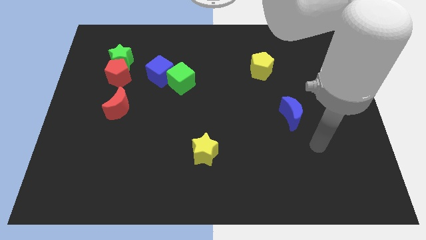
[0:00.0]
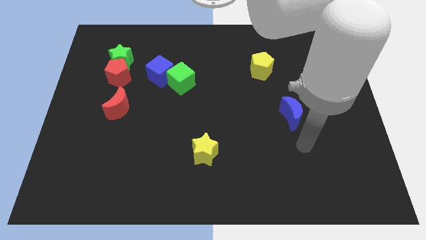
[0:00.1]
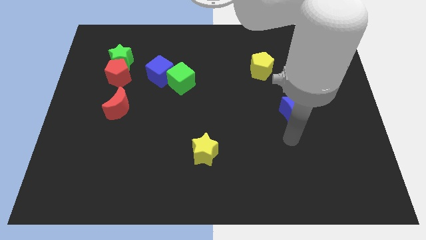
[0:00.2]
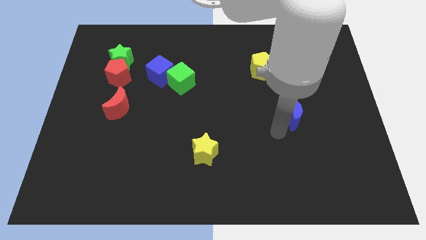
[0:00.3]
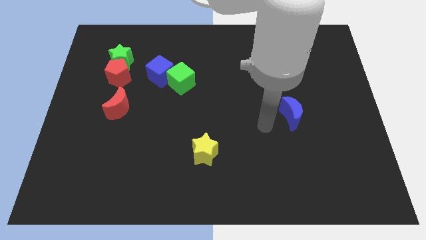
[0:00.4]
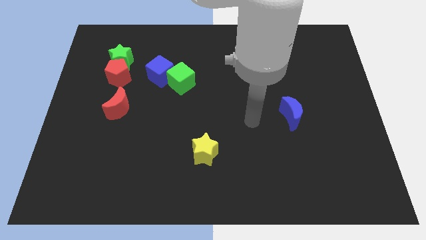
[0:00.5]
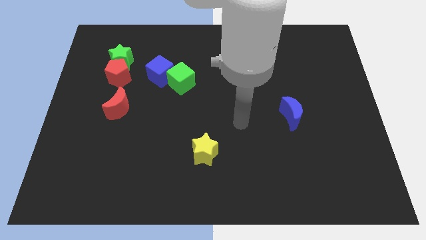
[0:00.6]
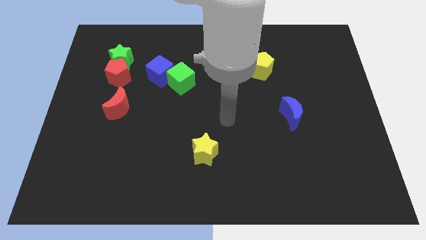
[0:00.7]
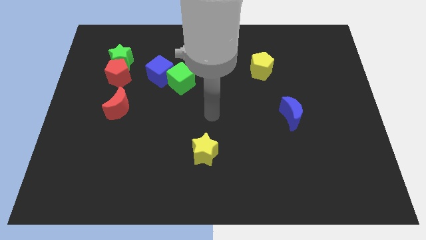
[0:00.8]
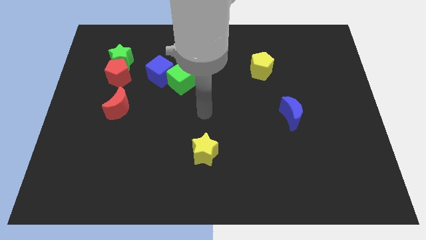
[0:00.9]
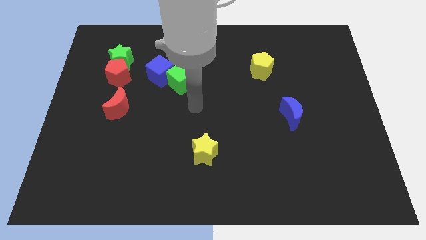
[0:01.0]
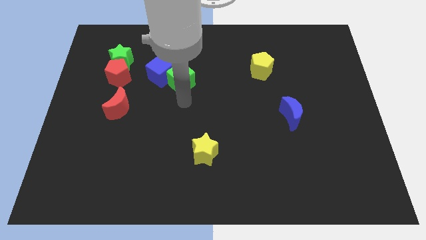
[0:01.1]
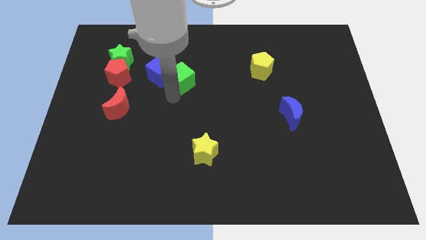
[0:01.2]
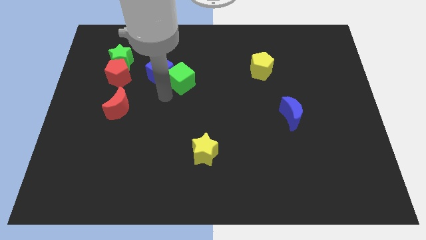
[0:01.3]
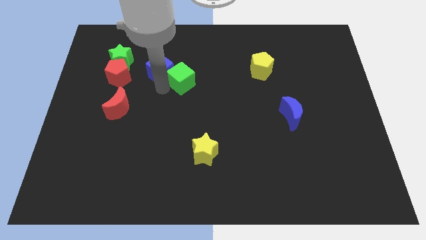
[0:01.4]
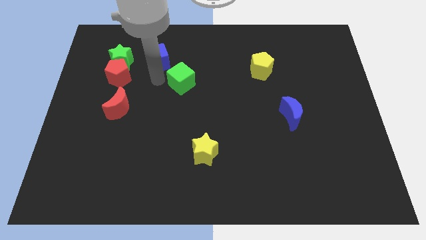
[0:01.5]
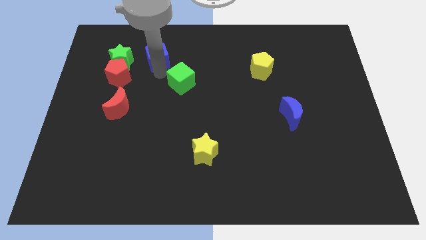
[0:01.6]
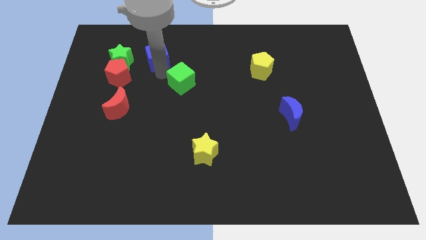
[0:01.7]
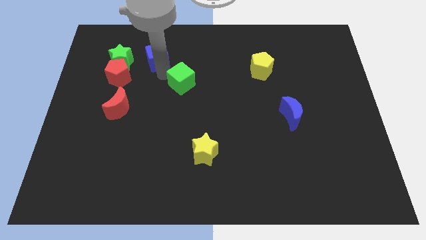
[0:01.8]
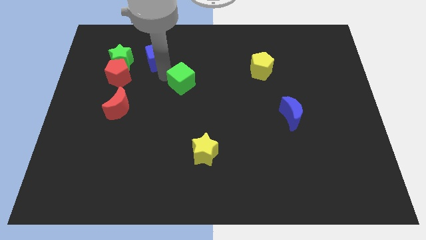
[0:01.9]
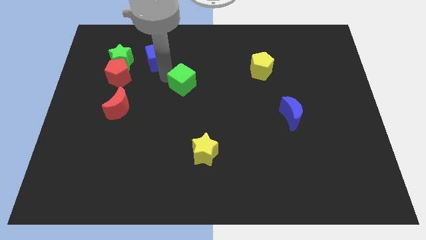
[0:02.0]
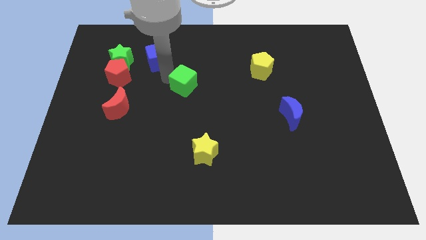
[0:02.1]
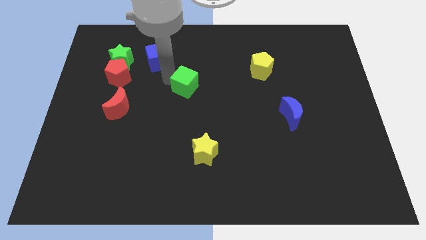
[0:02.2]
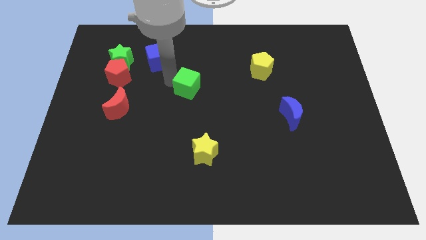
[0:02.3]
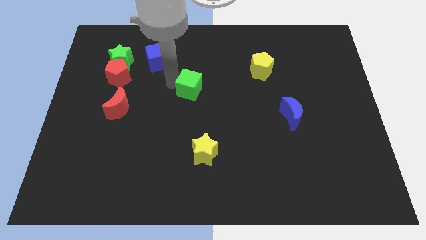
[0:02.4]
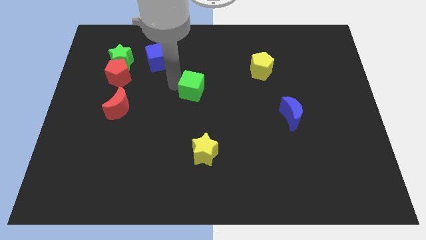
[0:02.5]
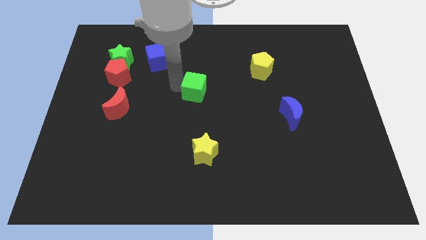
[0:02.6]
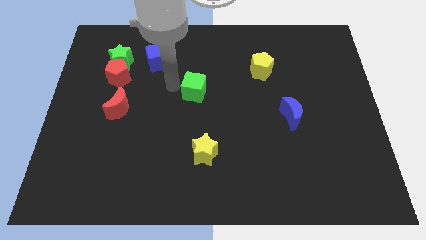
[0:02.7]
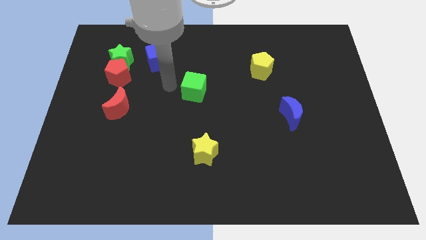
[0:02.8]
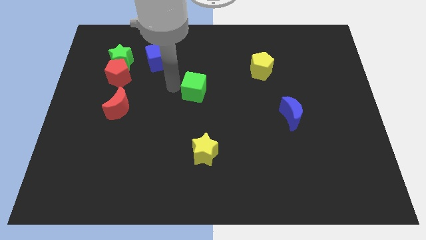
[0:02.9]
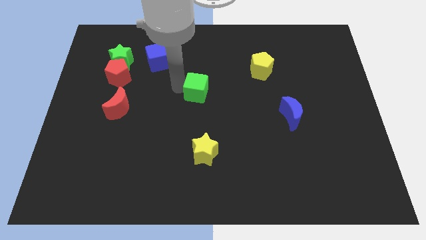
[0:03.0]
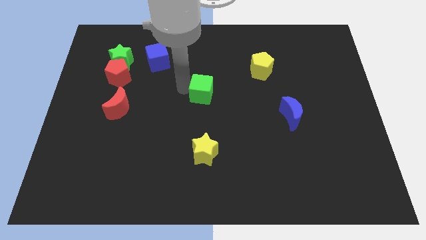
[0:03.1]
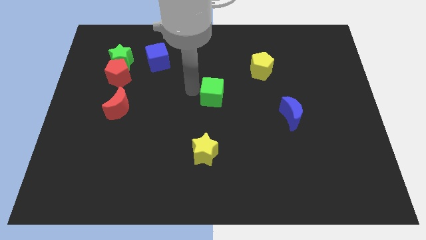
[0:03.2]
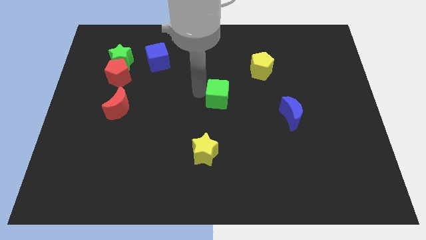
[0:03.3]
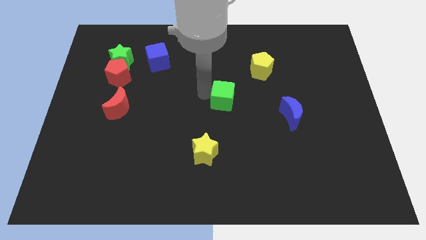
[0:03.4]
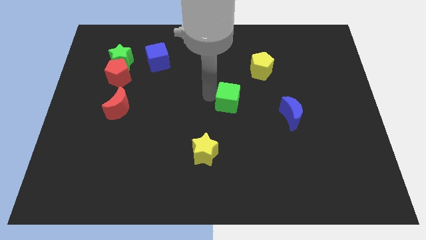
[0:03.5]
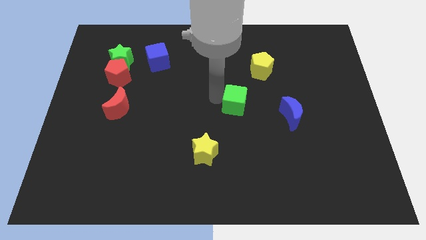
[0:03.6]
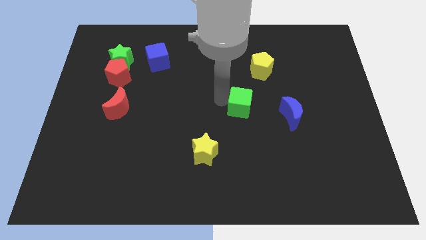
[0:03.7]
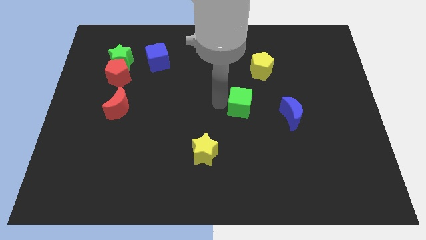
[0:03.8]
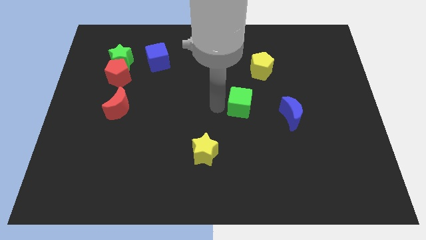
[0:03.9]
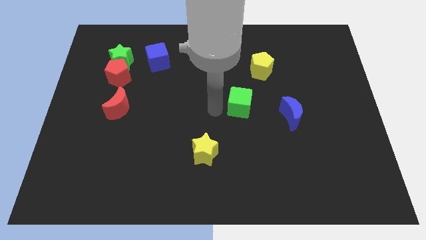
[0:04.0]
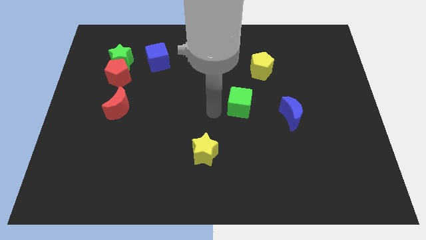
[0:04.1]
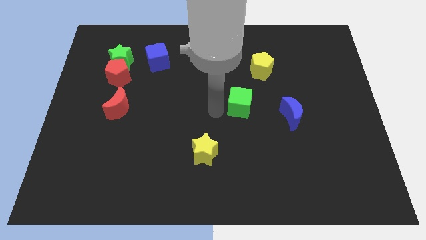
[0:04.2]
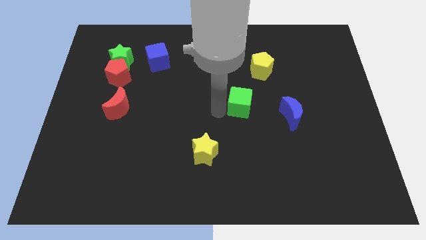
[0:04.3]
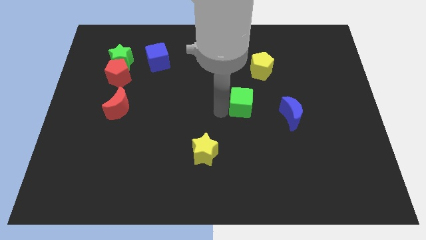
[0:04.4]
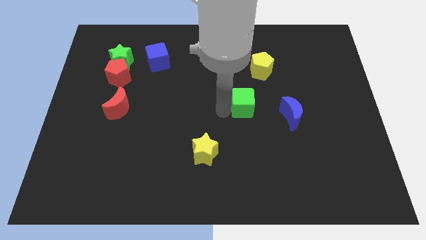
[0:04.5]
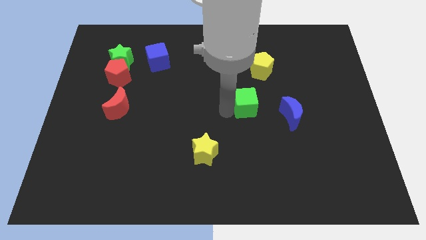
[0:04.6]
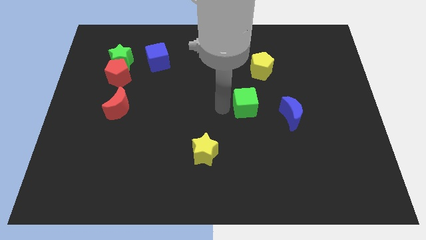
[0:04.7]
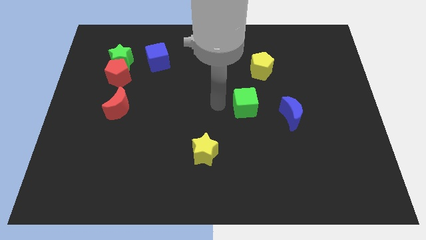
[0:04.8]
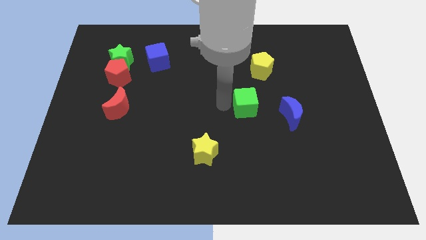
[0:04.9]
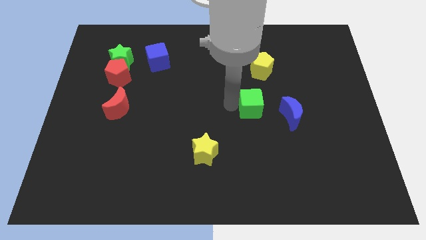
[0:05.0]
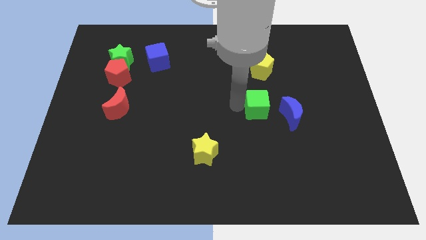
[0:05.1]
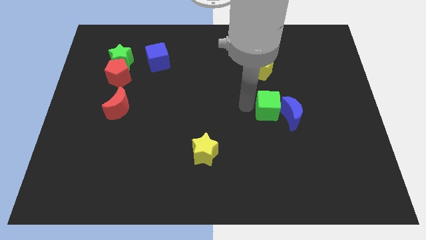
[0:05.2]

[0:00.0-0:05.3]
push the green cube towards the blue moon

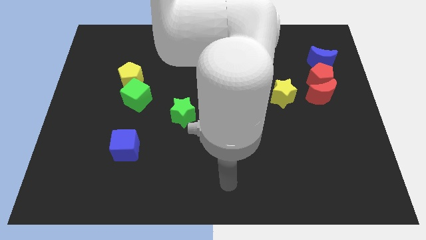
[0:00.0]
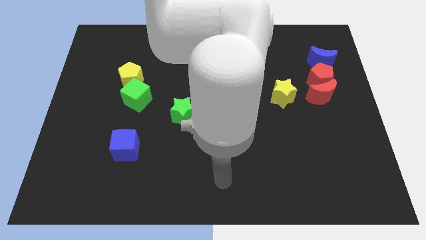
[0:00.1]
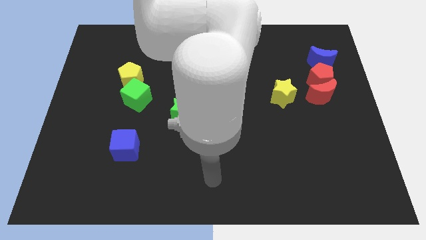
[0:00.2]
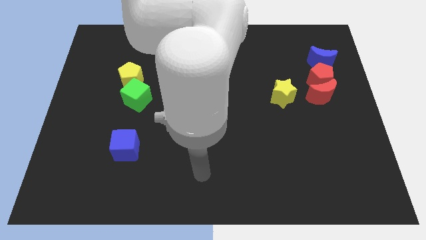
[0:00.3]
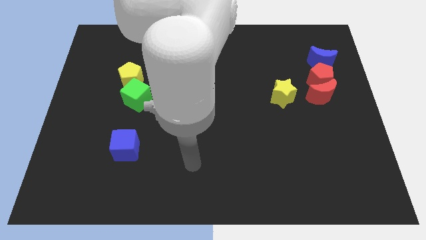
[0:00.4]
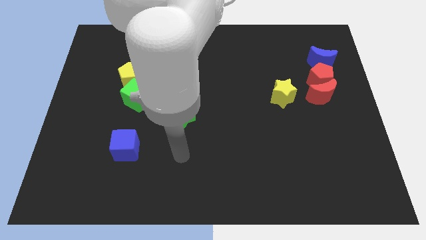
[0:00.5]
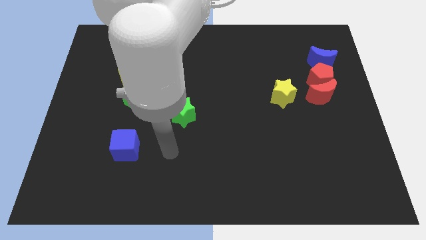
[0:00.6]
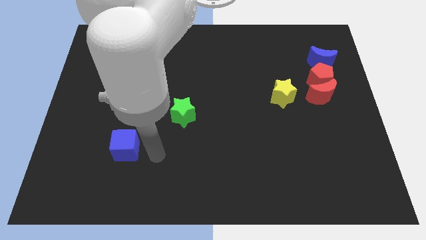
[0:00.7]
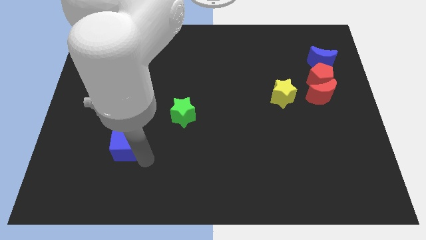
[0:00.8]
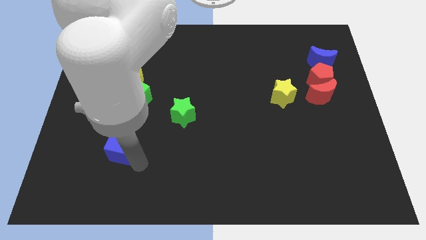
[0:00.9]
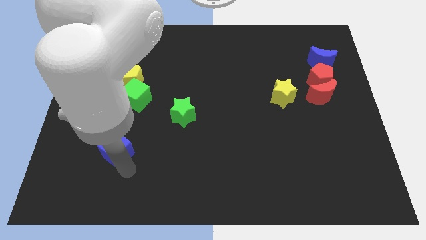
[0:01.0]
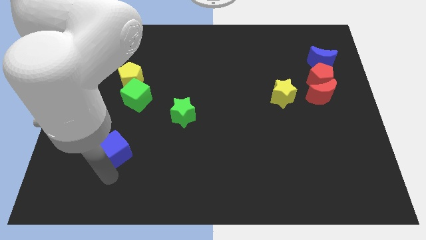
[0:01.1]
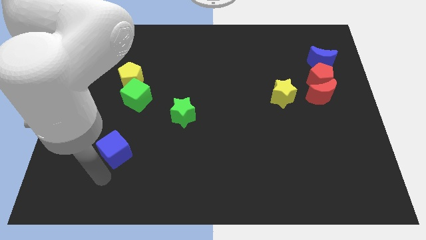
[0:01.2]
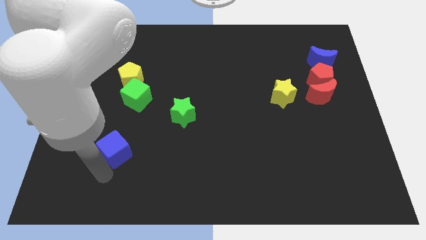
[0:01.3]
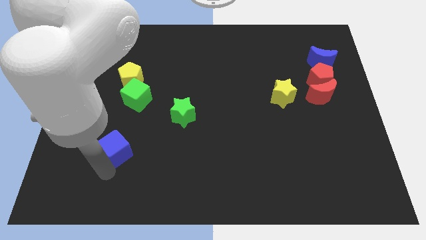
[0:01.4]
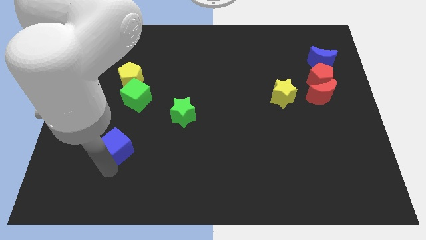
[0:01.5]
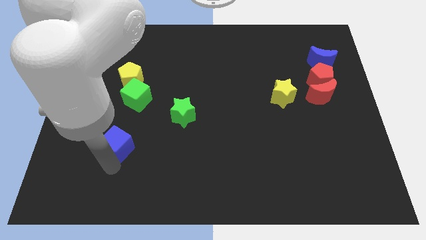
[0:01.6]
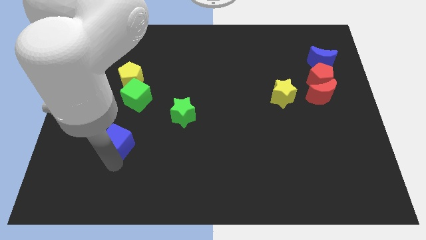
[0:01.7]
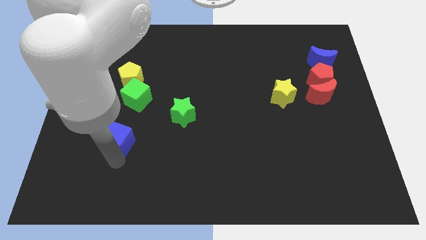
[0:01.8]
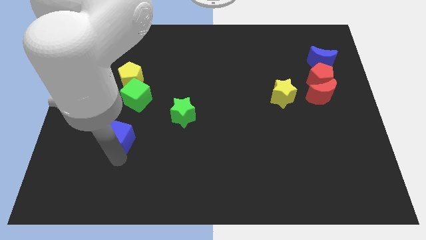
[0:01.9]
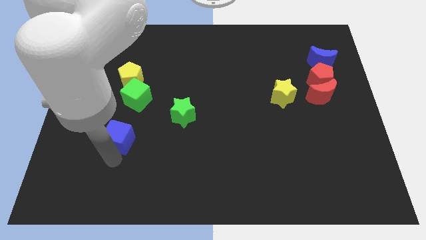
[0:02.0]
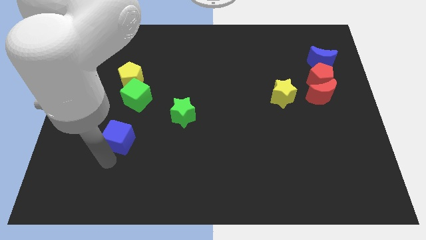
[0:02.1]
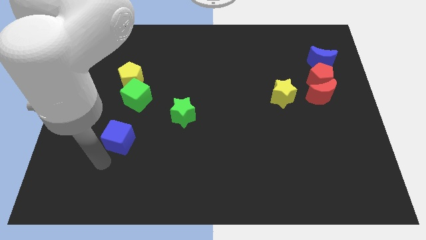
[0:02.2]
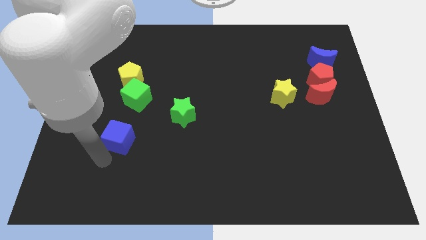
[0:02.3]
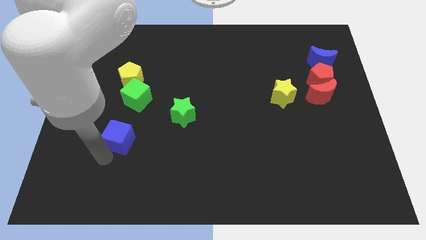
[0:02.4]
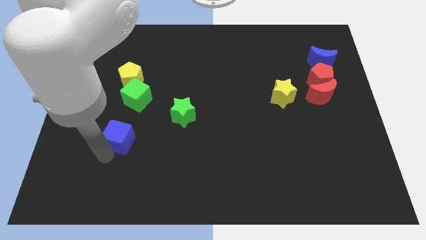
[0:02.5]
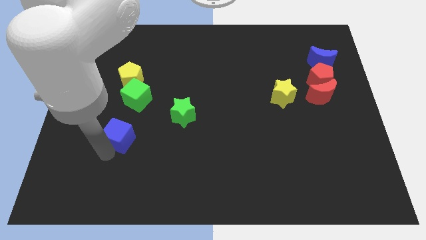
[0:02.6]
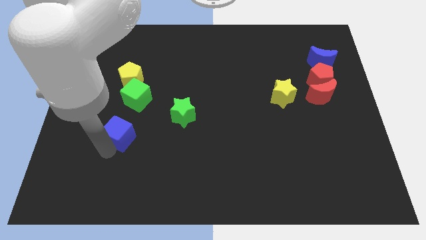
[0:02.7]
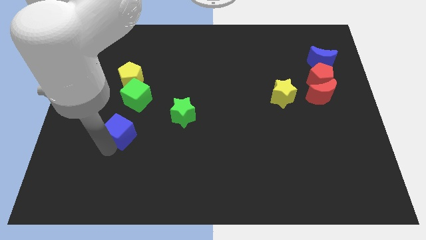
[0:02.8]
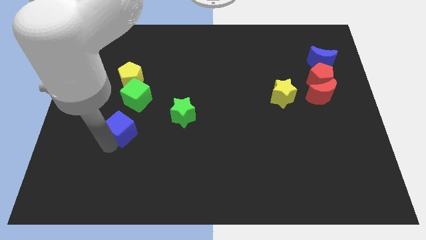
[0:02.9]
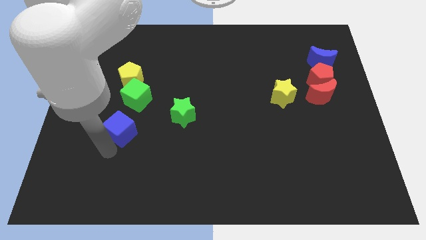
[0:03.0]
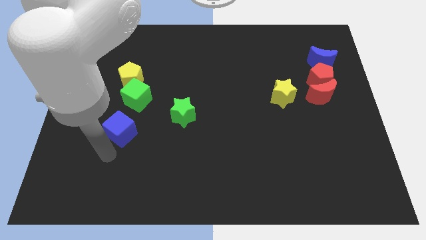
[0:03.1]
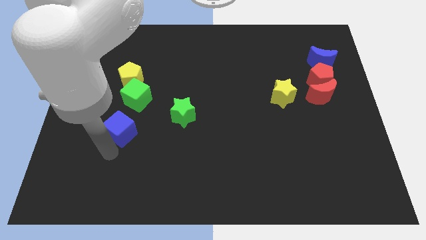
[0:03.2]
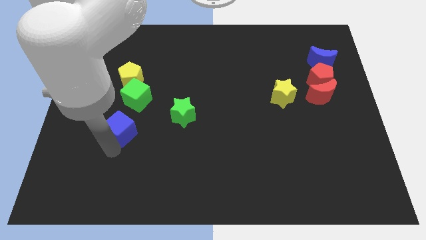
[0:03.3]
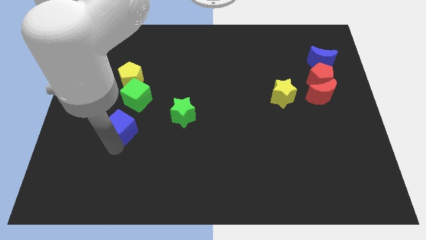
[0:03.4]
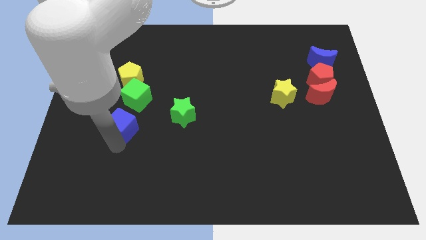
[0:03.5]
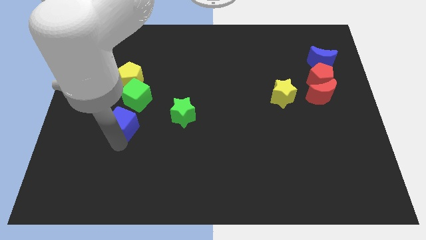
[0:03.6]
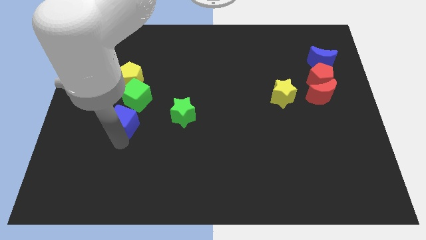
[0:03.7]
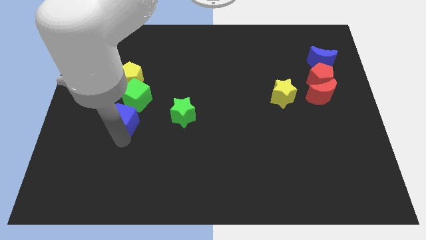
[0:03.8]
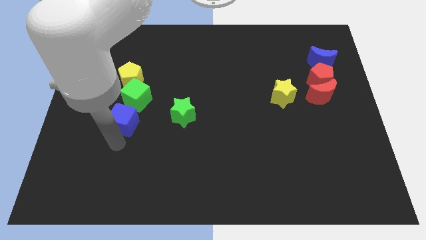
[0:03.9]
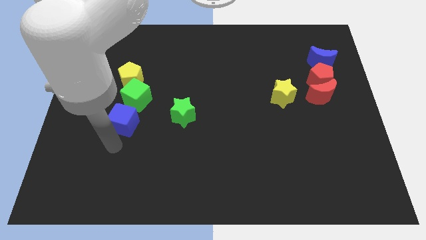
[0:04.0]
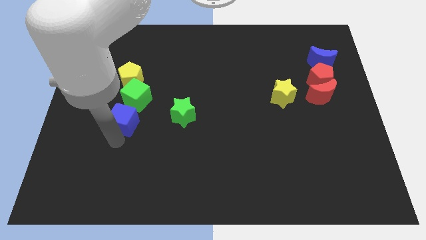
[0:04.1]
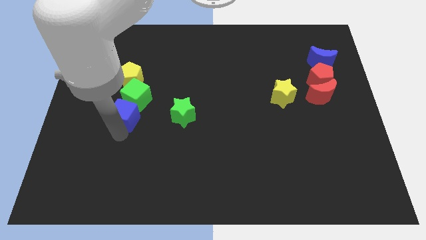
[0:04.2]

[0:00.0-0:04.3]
put the blue cube to the green cube
